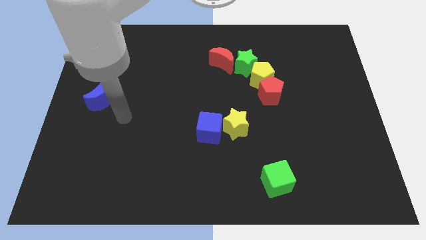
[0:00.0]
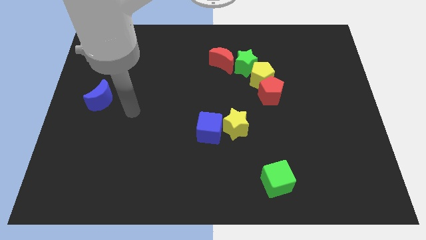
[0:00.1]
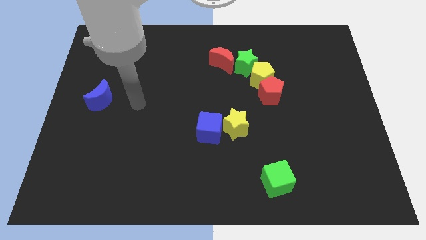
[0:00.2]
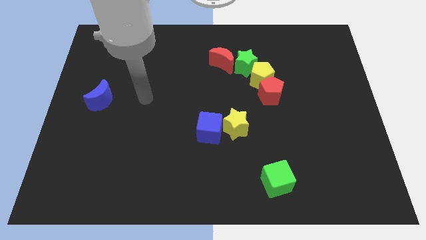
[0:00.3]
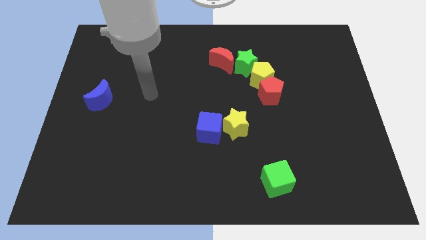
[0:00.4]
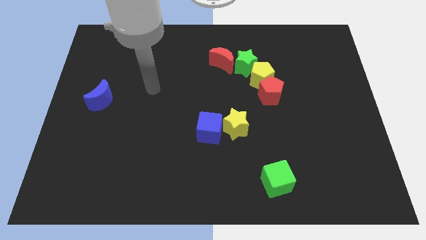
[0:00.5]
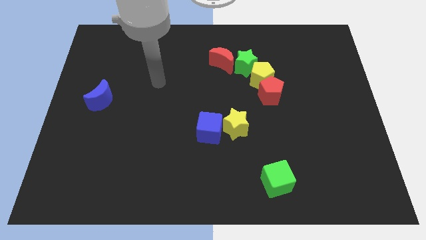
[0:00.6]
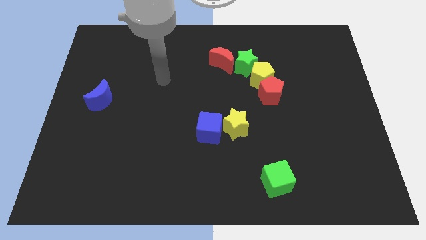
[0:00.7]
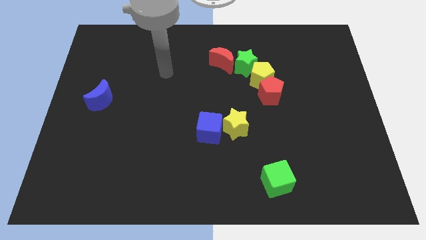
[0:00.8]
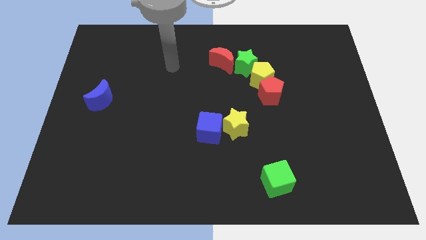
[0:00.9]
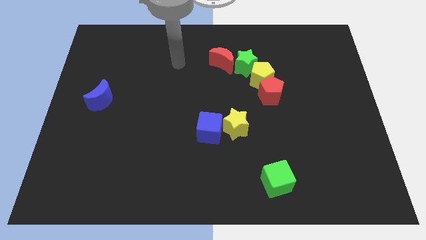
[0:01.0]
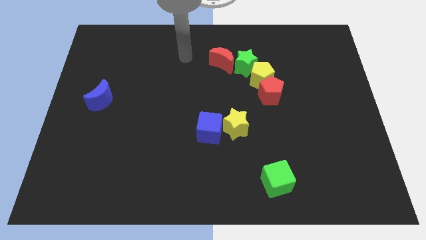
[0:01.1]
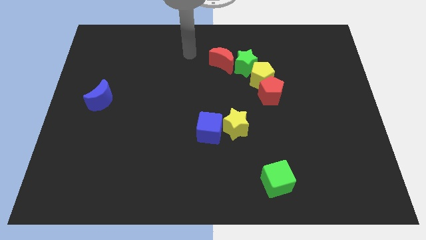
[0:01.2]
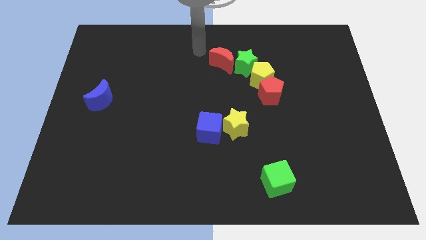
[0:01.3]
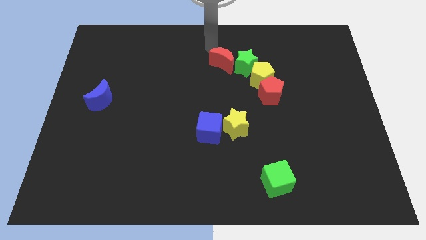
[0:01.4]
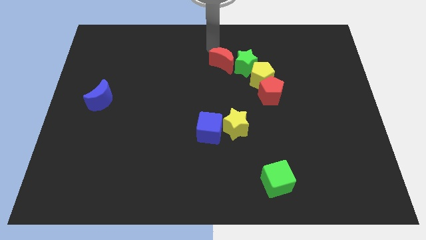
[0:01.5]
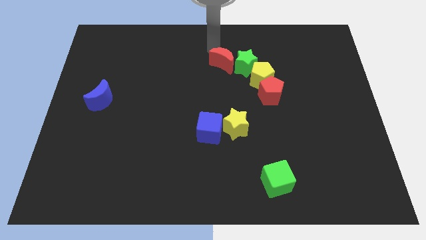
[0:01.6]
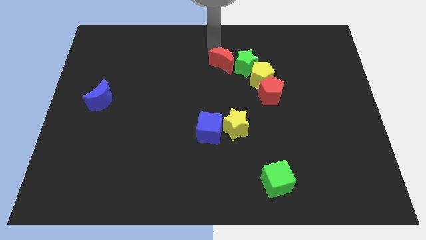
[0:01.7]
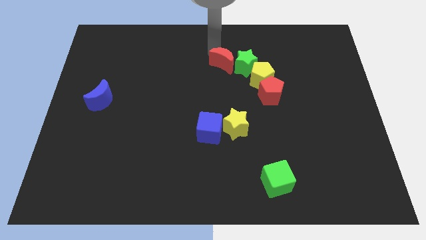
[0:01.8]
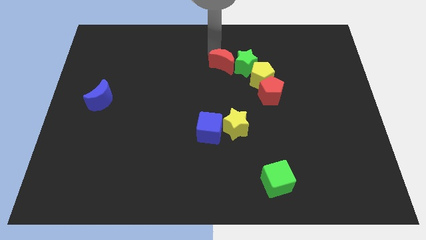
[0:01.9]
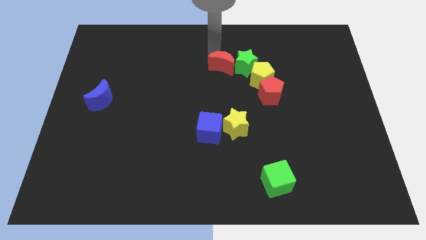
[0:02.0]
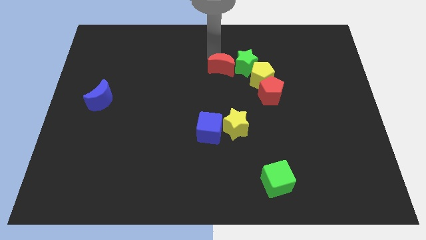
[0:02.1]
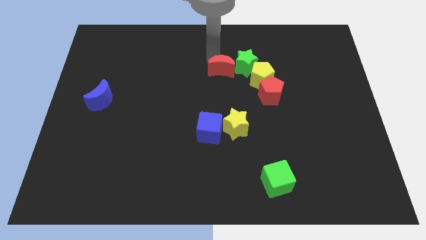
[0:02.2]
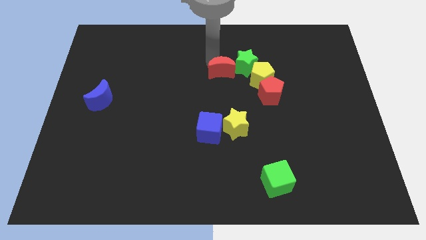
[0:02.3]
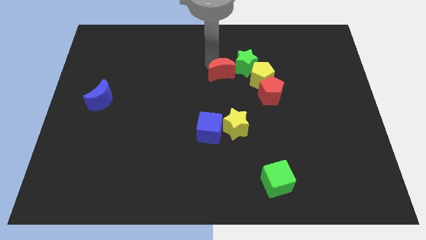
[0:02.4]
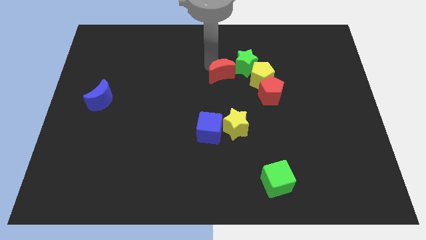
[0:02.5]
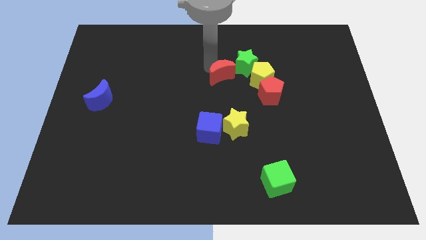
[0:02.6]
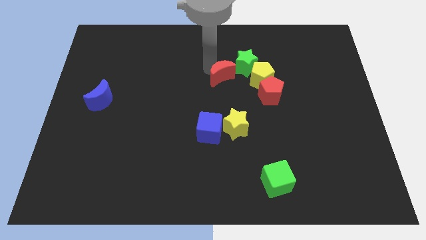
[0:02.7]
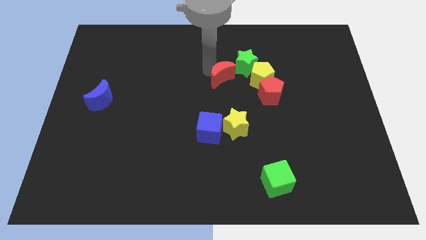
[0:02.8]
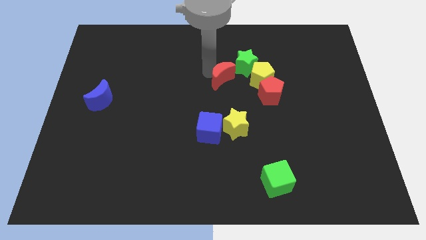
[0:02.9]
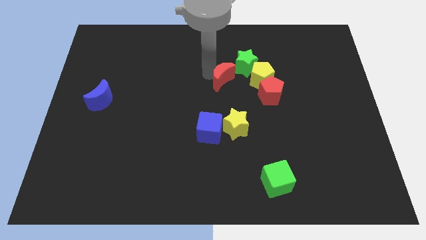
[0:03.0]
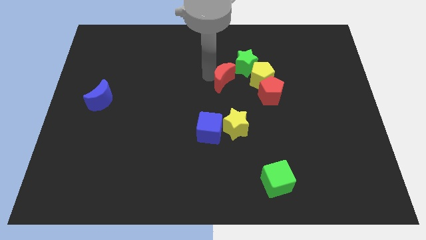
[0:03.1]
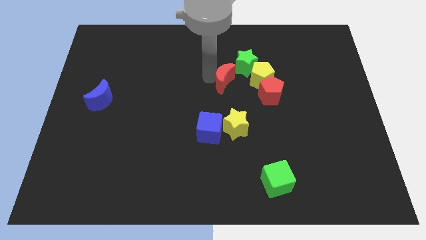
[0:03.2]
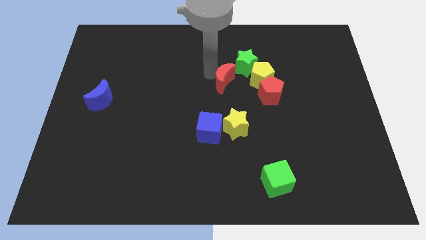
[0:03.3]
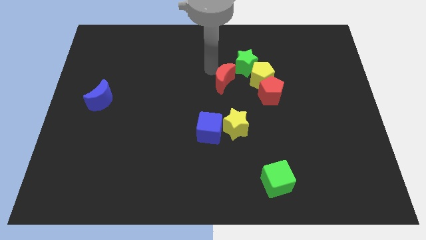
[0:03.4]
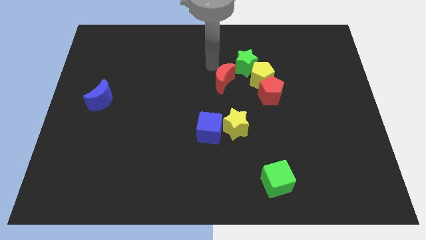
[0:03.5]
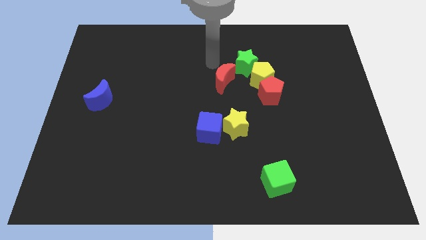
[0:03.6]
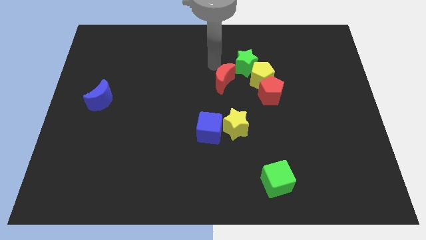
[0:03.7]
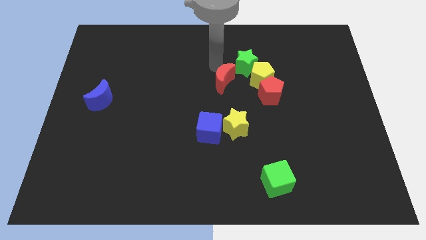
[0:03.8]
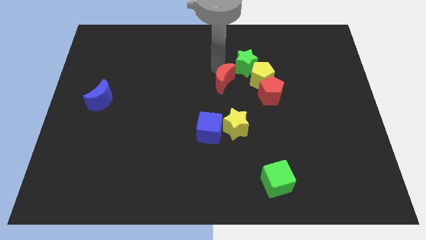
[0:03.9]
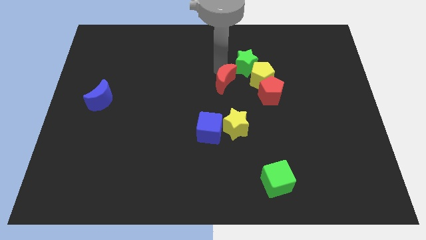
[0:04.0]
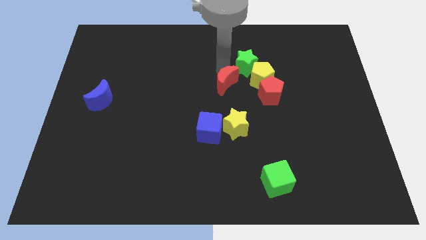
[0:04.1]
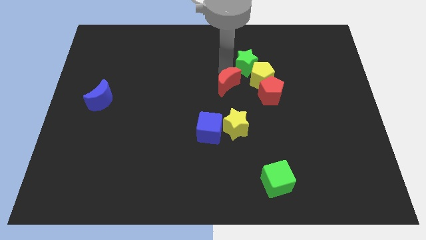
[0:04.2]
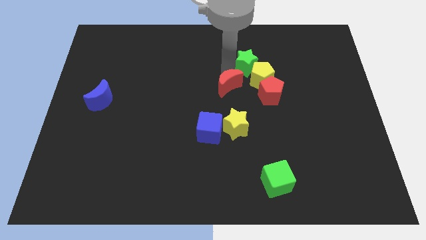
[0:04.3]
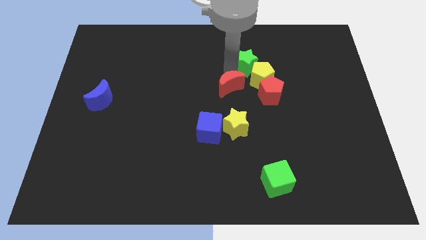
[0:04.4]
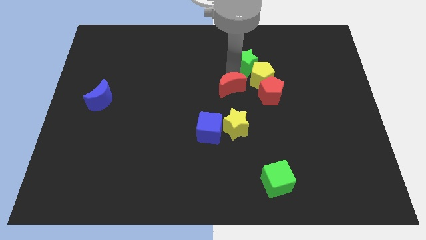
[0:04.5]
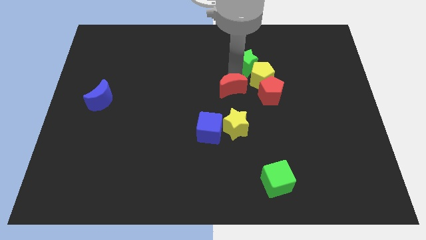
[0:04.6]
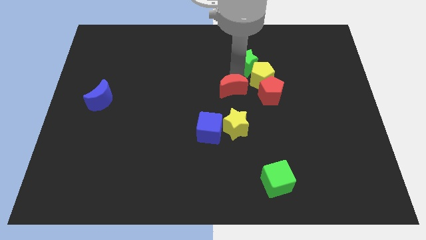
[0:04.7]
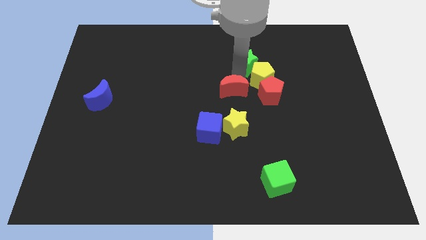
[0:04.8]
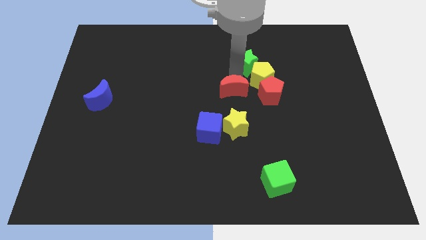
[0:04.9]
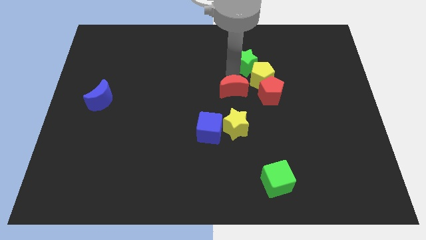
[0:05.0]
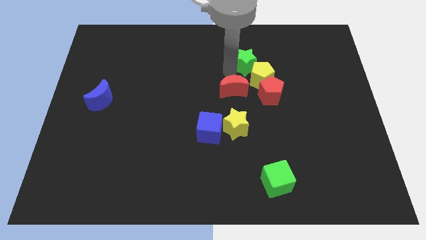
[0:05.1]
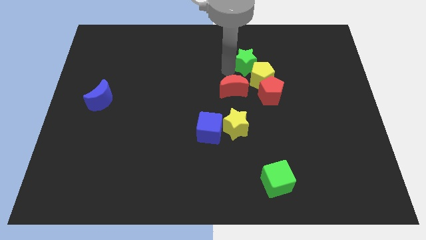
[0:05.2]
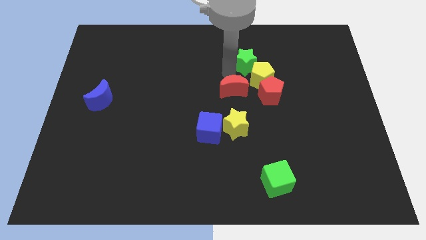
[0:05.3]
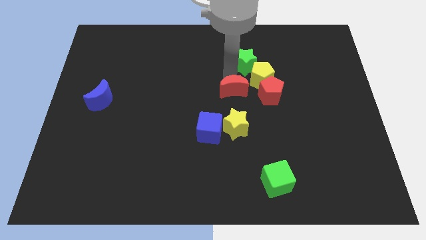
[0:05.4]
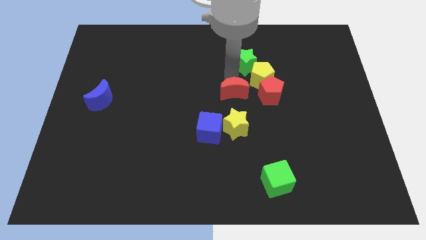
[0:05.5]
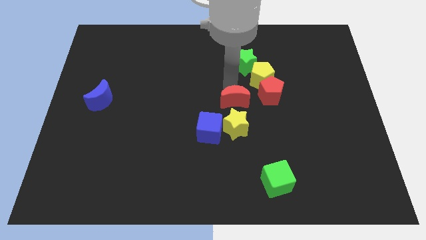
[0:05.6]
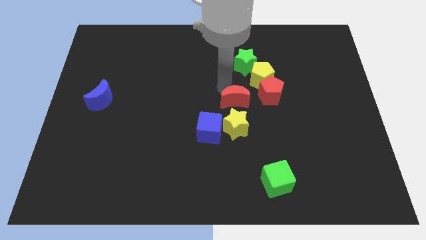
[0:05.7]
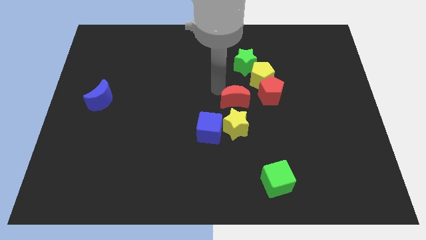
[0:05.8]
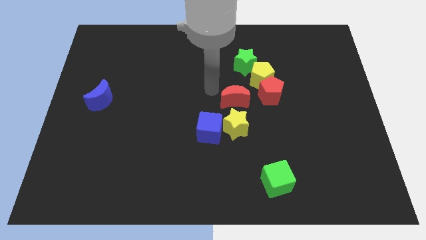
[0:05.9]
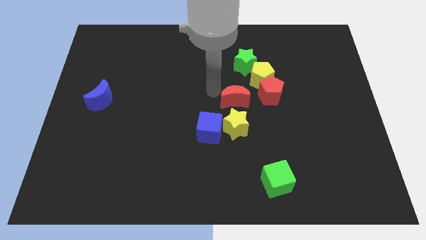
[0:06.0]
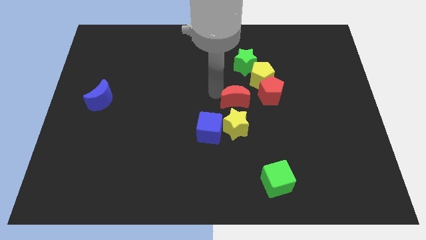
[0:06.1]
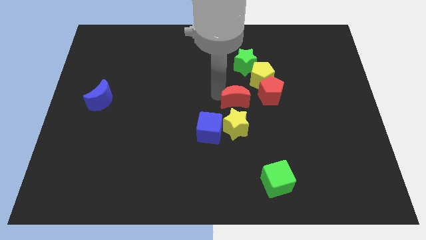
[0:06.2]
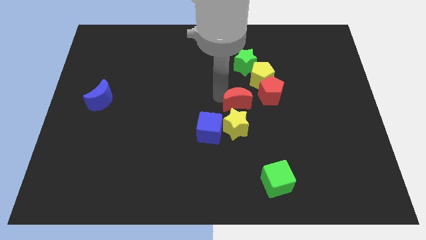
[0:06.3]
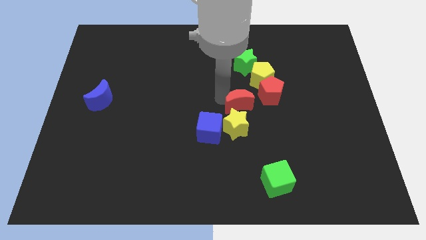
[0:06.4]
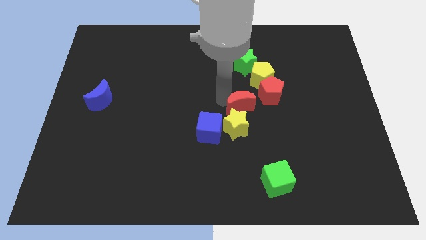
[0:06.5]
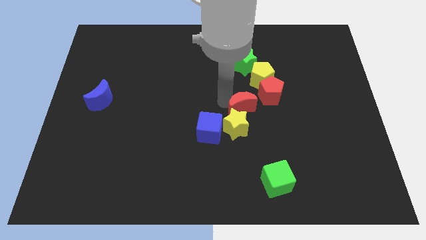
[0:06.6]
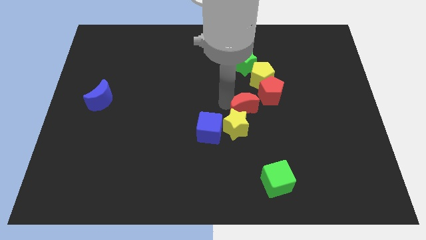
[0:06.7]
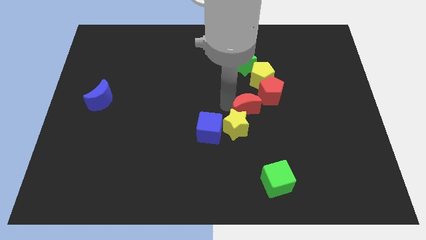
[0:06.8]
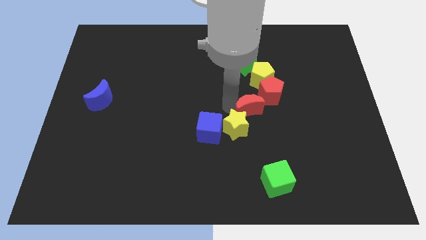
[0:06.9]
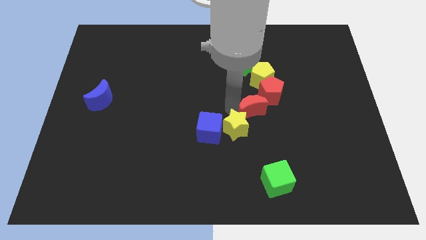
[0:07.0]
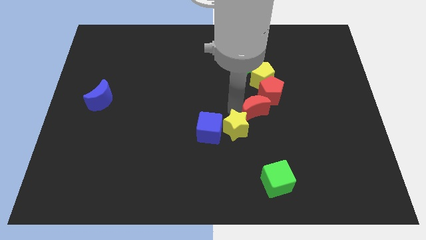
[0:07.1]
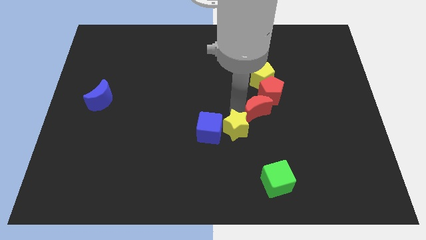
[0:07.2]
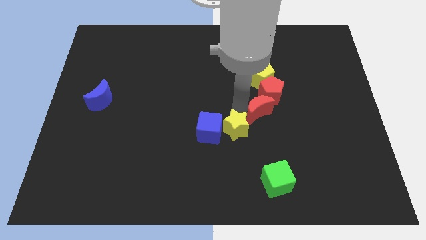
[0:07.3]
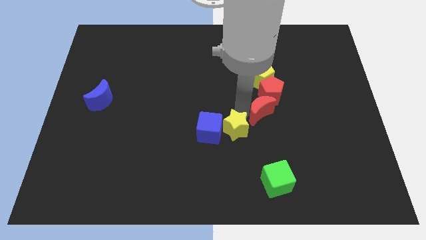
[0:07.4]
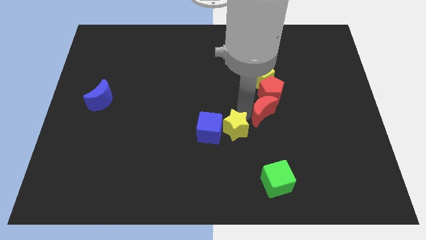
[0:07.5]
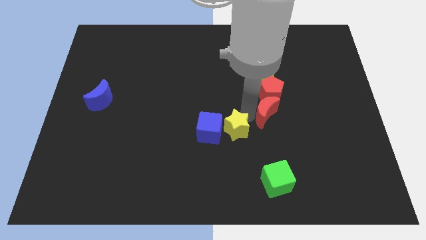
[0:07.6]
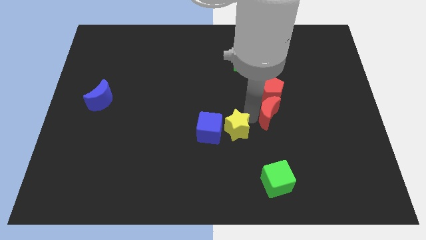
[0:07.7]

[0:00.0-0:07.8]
push the red moon to the bottom right of the red pentagon
